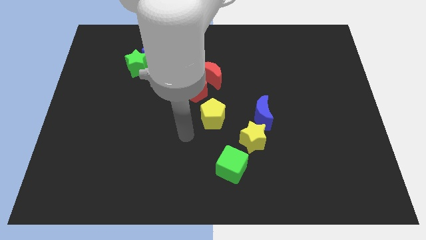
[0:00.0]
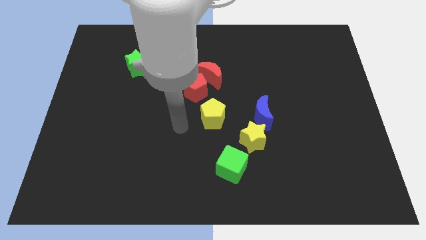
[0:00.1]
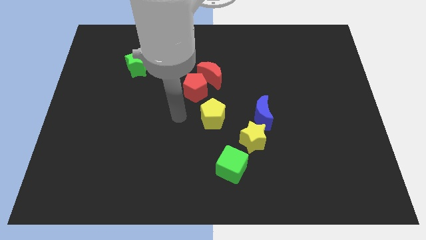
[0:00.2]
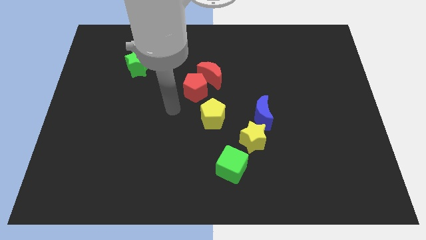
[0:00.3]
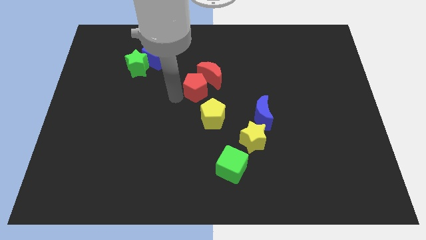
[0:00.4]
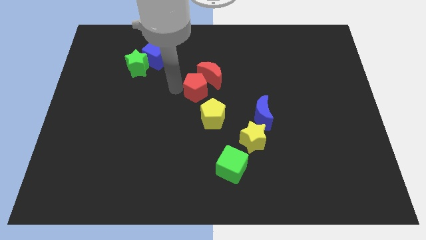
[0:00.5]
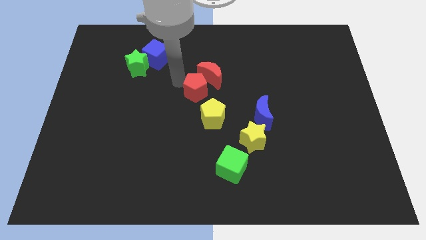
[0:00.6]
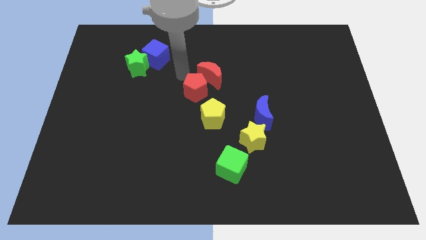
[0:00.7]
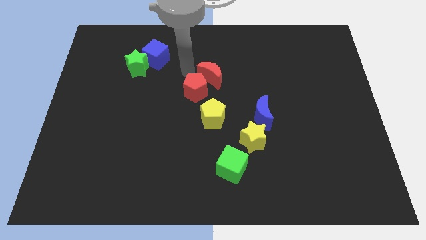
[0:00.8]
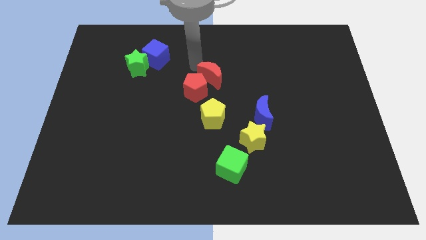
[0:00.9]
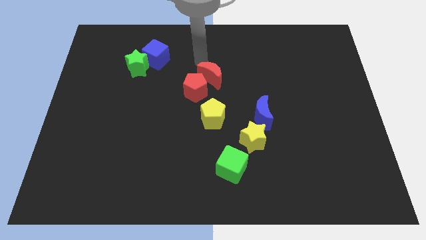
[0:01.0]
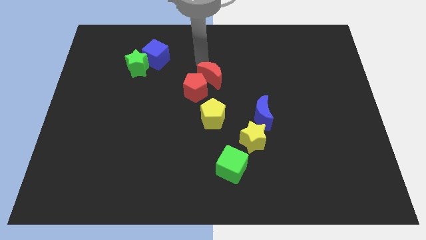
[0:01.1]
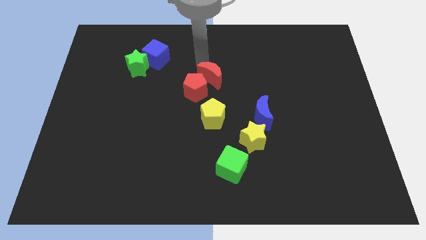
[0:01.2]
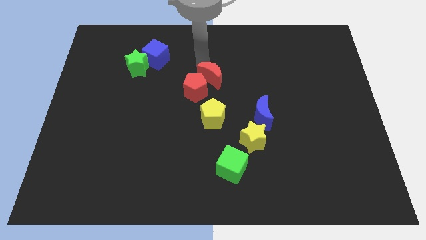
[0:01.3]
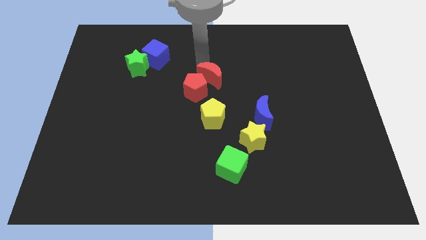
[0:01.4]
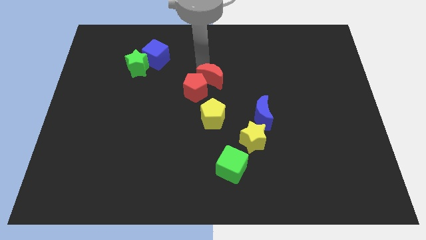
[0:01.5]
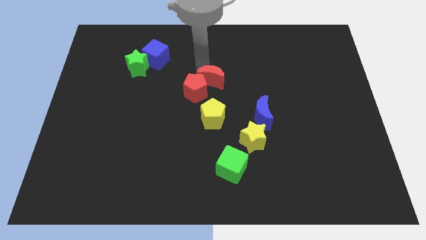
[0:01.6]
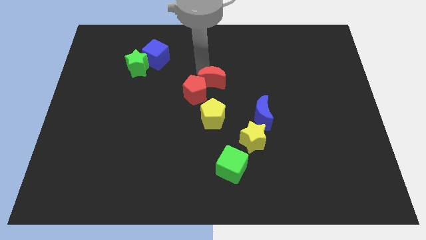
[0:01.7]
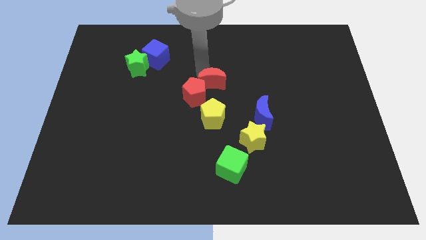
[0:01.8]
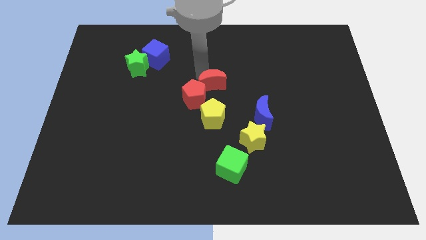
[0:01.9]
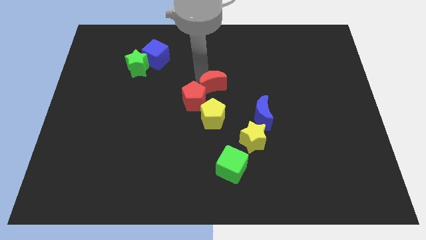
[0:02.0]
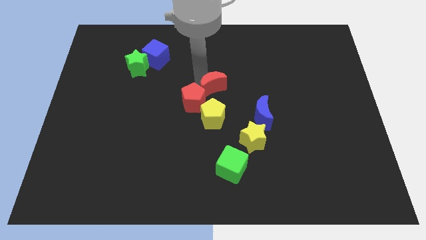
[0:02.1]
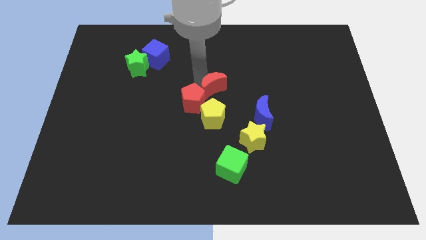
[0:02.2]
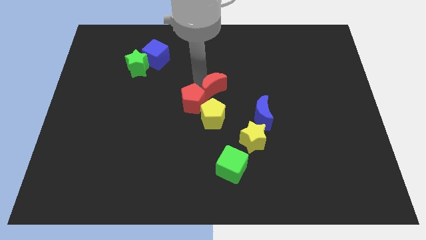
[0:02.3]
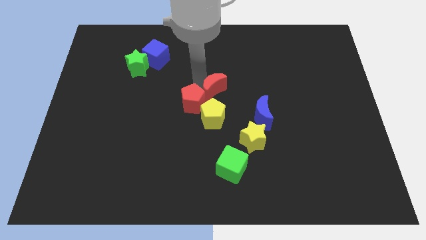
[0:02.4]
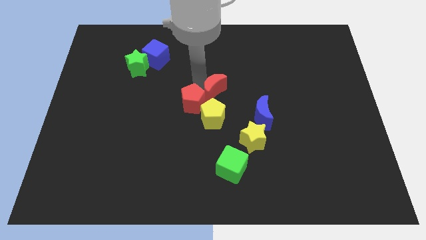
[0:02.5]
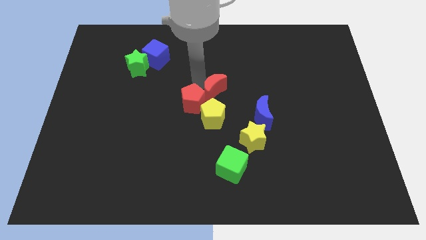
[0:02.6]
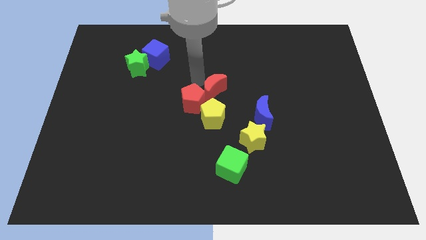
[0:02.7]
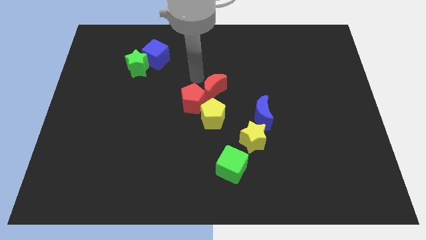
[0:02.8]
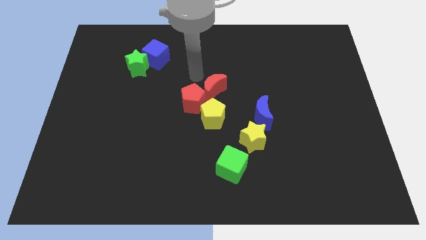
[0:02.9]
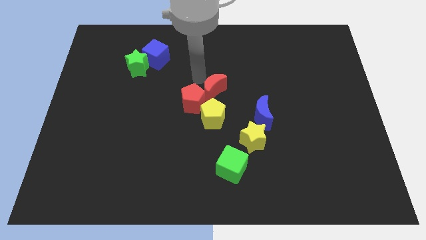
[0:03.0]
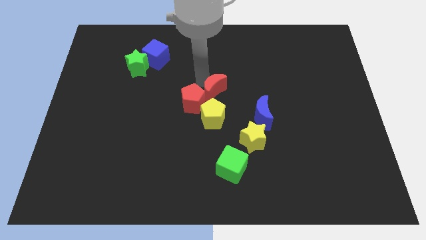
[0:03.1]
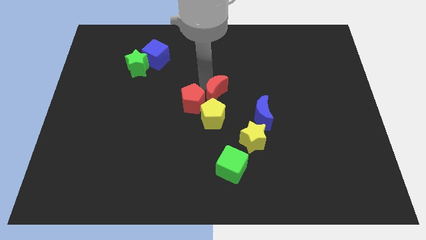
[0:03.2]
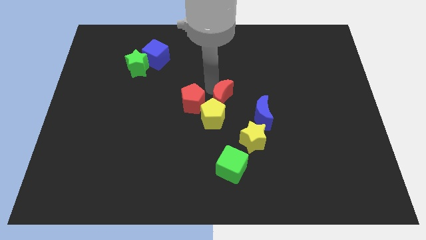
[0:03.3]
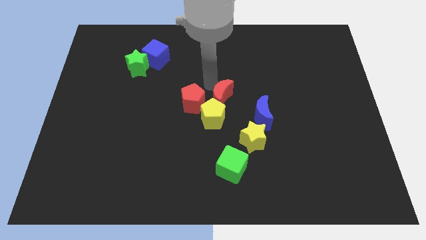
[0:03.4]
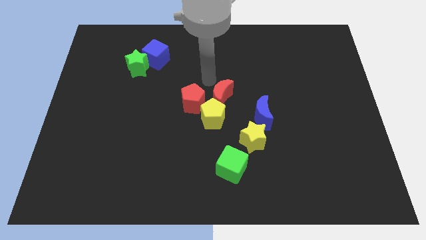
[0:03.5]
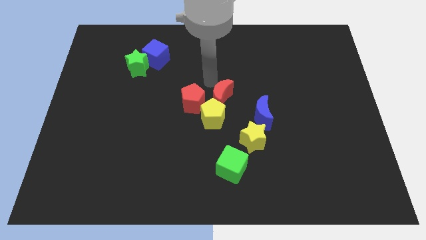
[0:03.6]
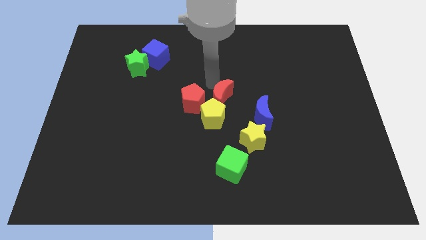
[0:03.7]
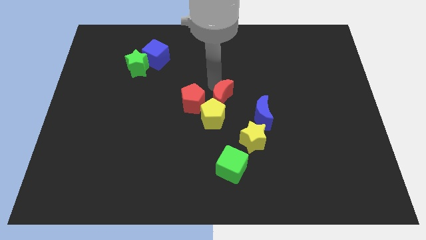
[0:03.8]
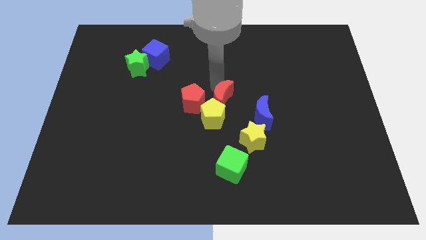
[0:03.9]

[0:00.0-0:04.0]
slightly slide the red moon downwards

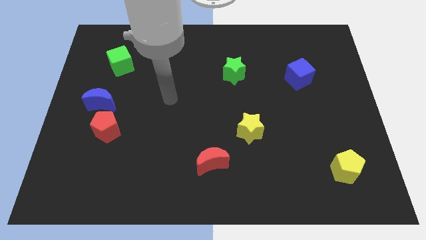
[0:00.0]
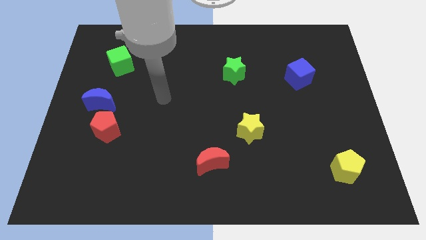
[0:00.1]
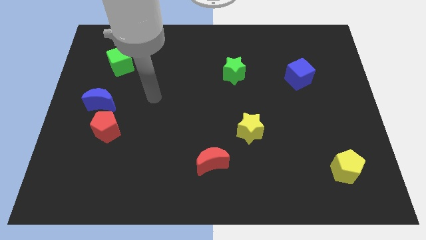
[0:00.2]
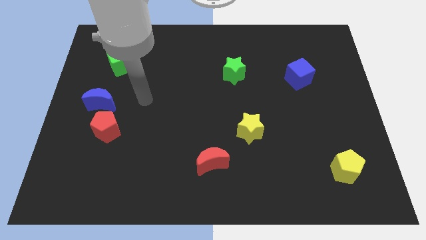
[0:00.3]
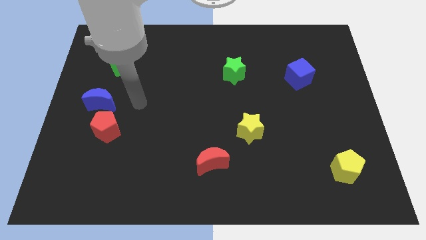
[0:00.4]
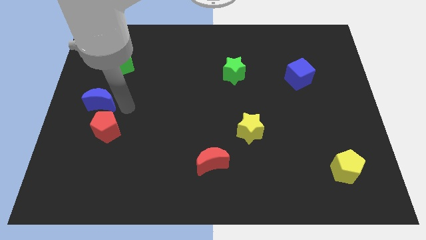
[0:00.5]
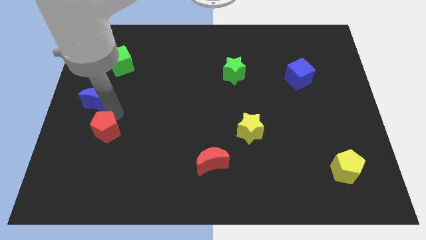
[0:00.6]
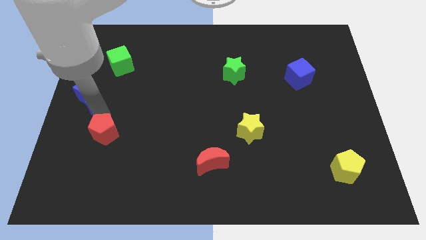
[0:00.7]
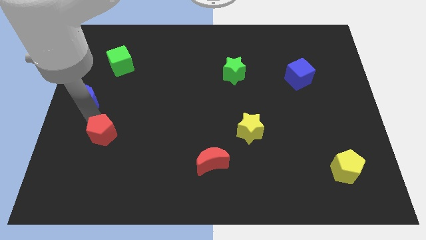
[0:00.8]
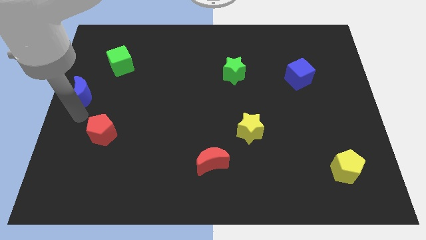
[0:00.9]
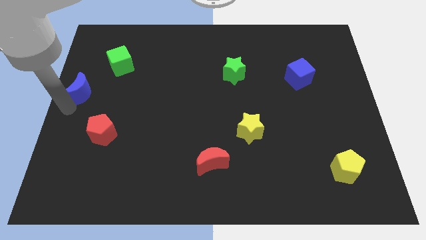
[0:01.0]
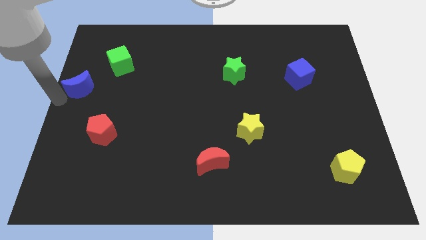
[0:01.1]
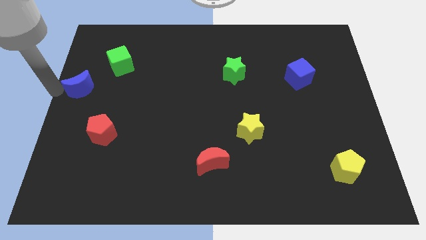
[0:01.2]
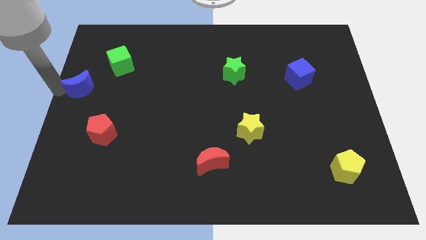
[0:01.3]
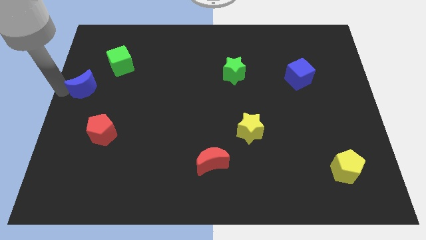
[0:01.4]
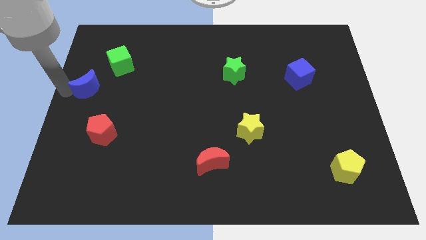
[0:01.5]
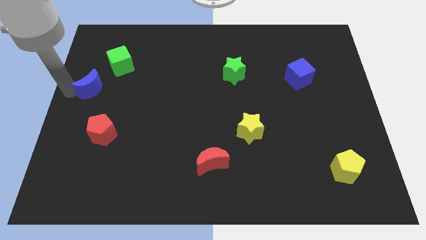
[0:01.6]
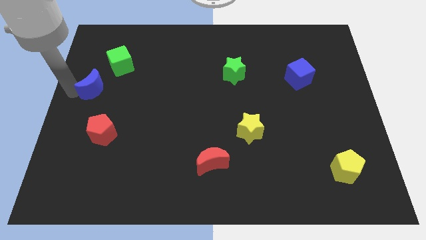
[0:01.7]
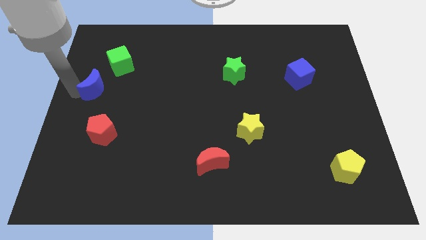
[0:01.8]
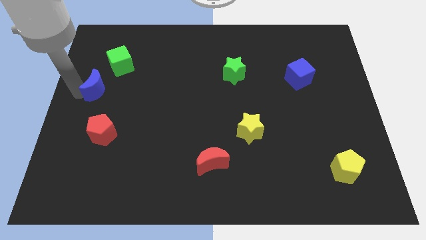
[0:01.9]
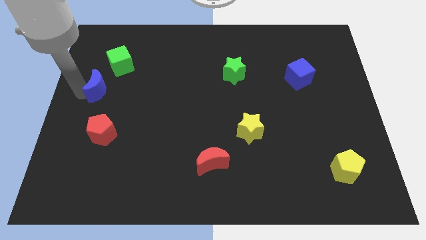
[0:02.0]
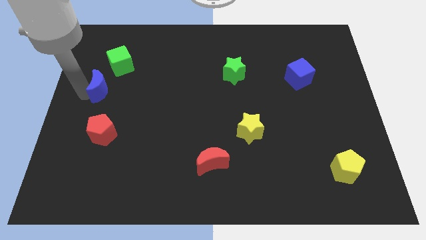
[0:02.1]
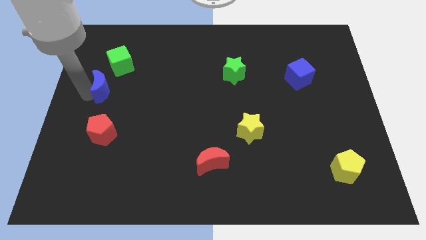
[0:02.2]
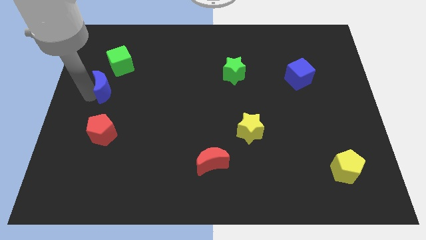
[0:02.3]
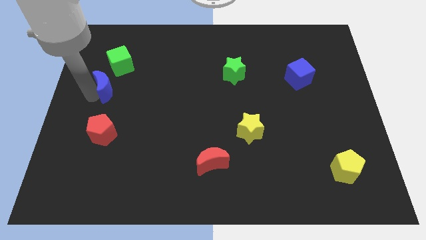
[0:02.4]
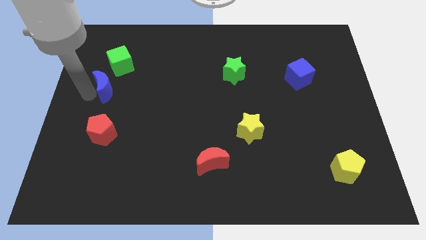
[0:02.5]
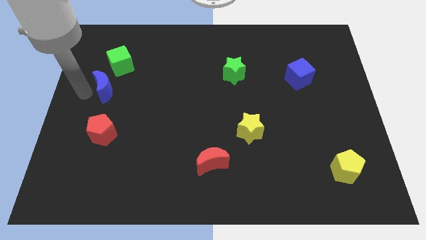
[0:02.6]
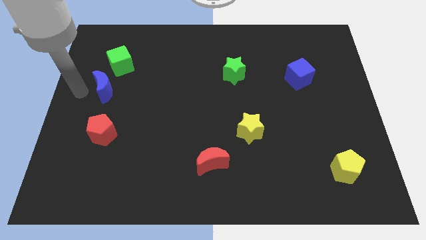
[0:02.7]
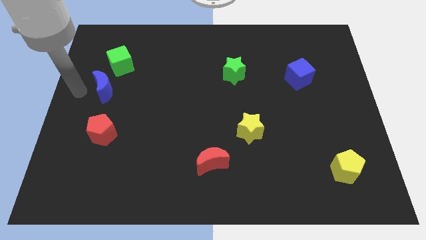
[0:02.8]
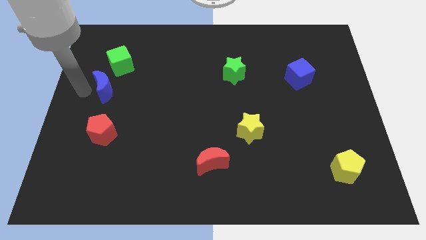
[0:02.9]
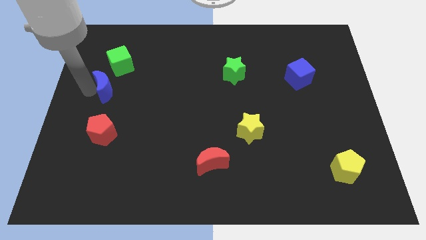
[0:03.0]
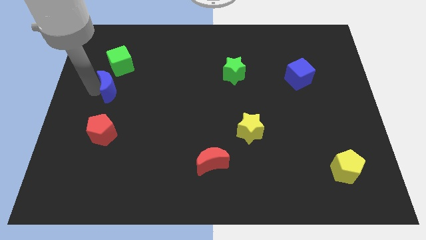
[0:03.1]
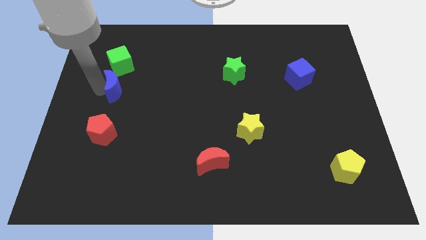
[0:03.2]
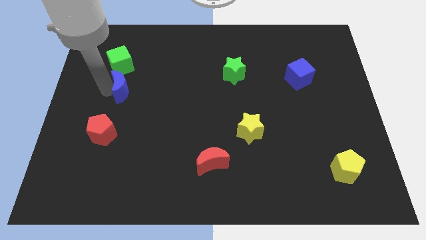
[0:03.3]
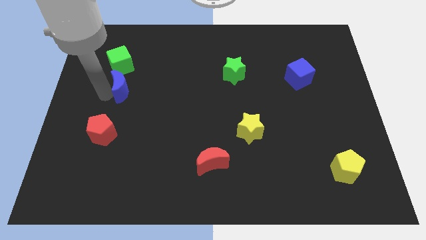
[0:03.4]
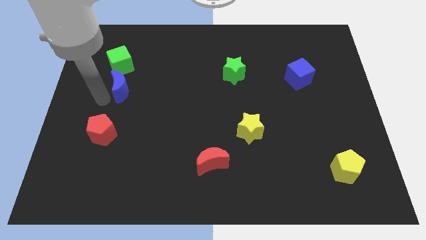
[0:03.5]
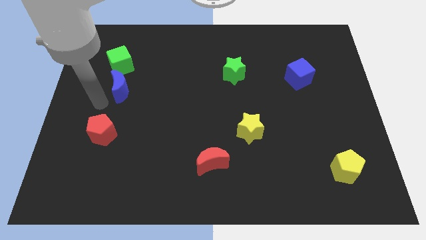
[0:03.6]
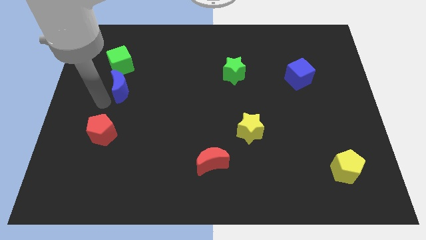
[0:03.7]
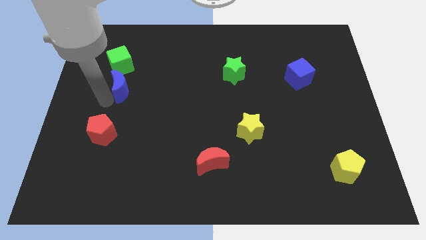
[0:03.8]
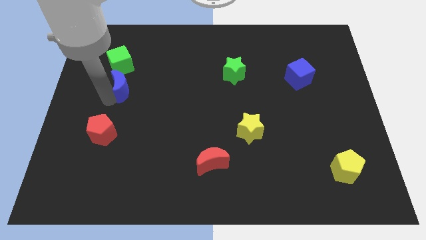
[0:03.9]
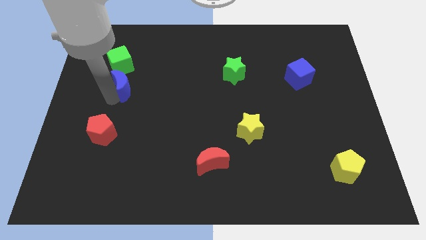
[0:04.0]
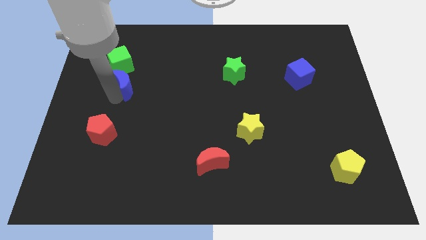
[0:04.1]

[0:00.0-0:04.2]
slightly move the blue moon diagonally up and to the right
